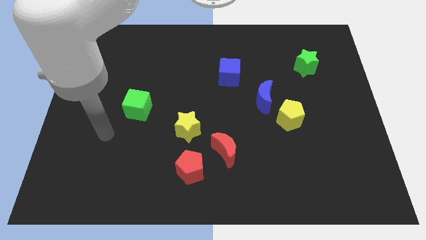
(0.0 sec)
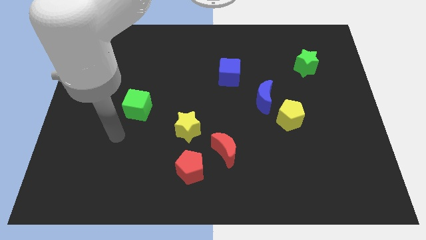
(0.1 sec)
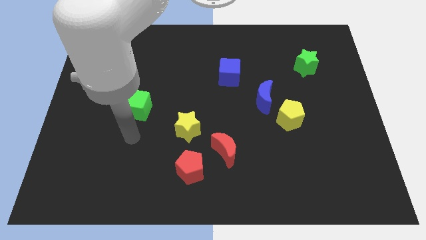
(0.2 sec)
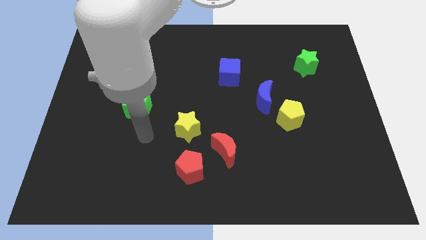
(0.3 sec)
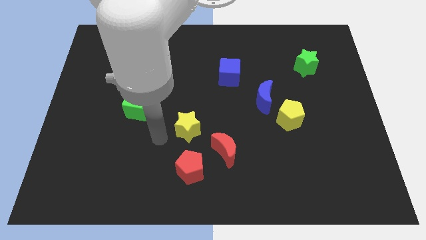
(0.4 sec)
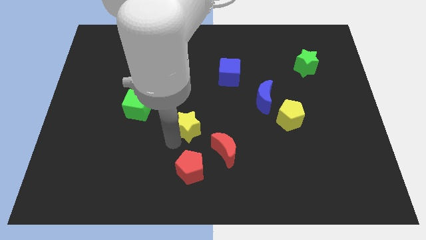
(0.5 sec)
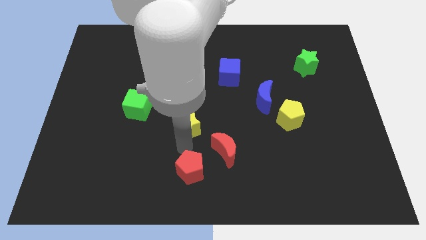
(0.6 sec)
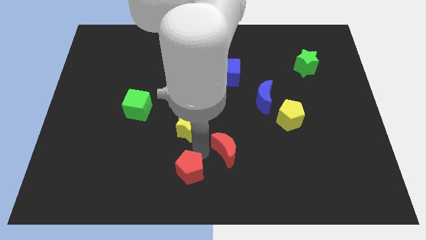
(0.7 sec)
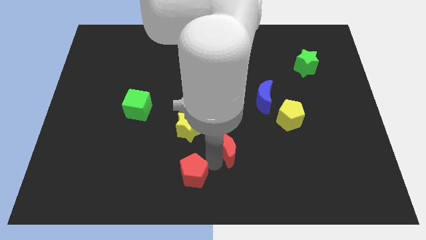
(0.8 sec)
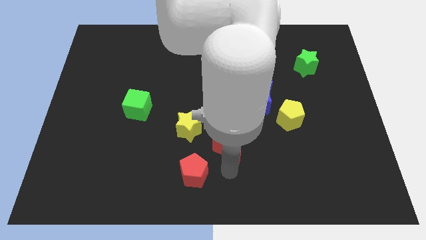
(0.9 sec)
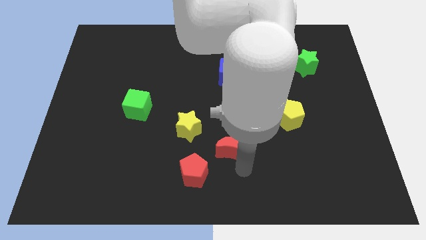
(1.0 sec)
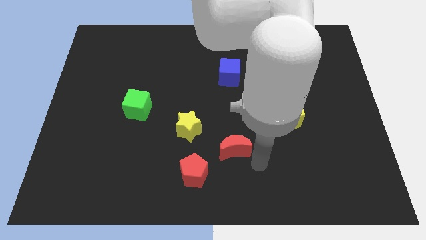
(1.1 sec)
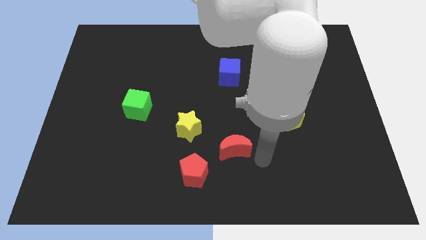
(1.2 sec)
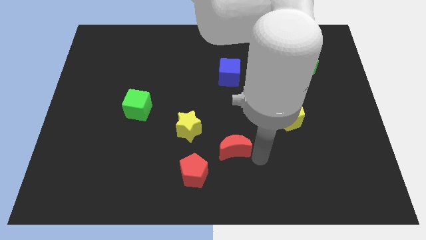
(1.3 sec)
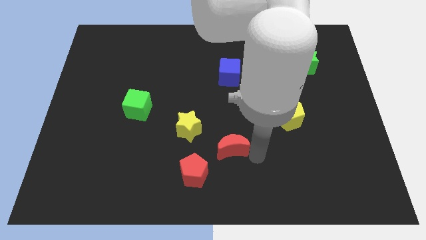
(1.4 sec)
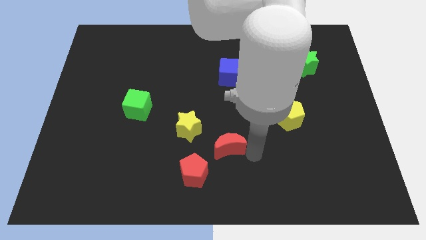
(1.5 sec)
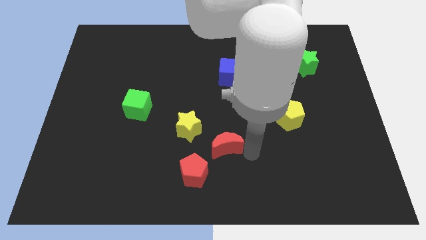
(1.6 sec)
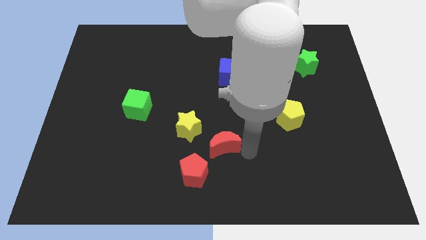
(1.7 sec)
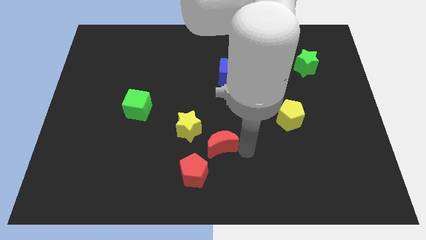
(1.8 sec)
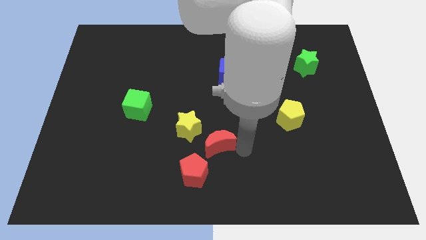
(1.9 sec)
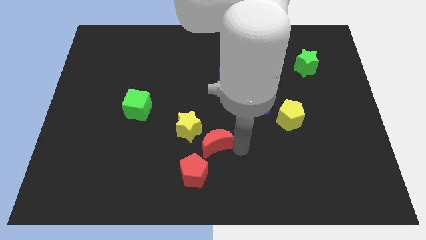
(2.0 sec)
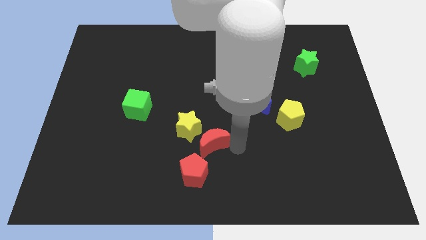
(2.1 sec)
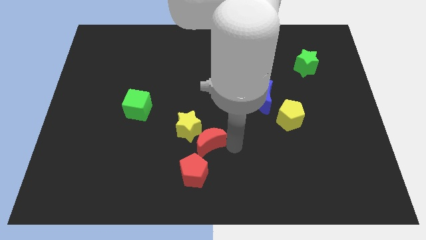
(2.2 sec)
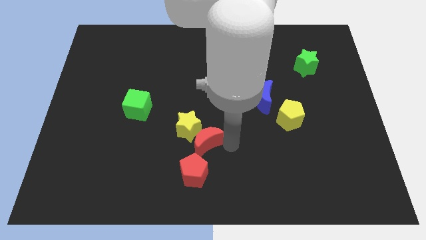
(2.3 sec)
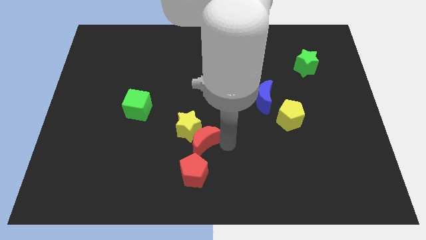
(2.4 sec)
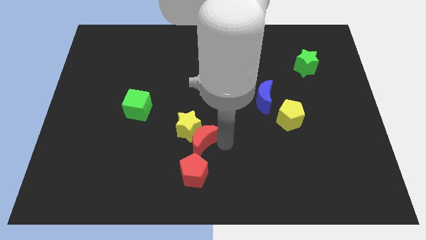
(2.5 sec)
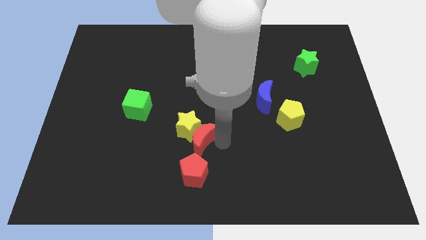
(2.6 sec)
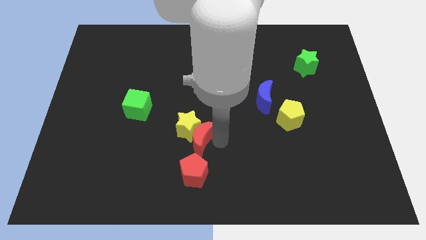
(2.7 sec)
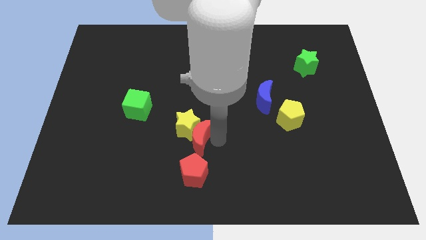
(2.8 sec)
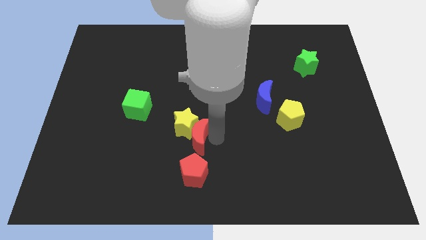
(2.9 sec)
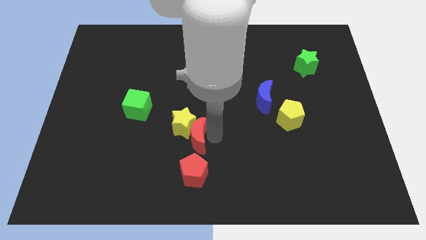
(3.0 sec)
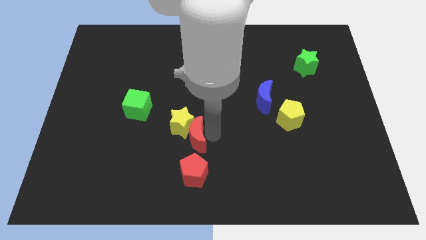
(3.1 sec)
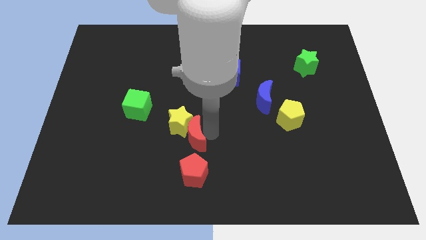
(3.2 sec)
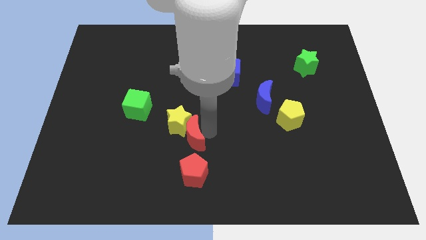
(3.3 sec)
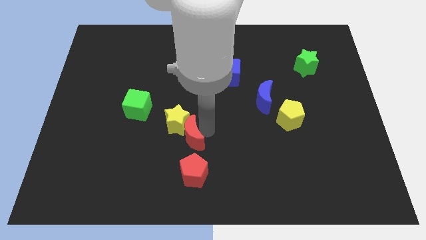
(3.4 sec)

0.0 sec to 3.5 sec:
push the red moon left a little bit

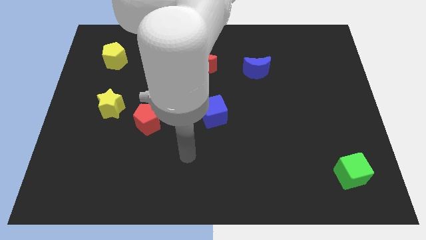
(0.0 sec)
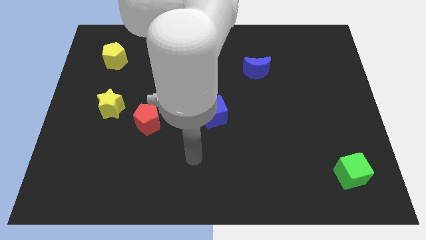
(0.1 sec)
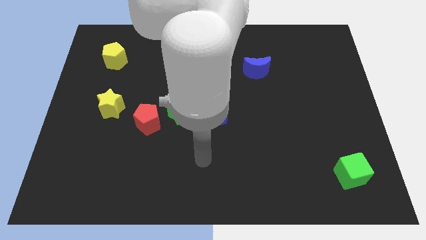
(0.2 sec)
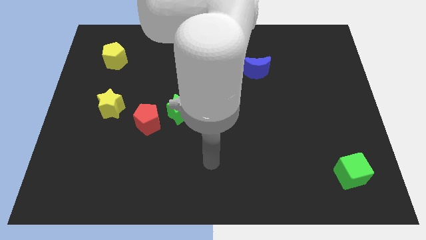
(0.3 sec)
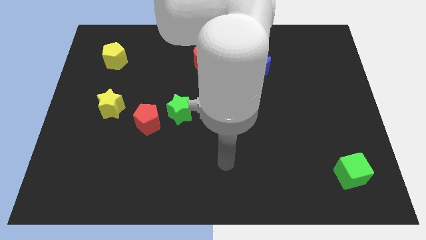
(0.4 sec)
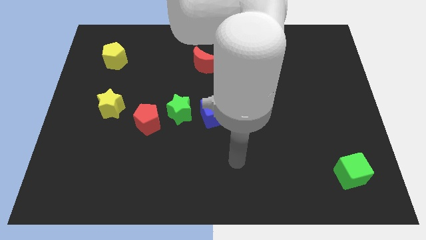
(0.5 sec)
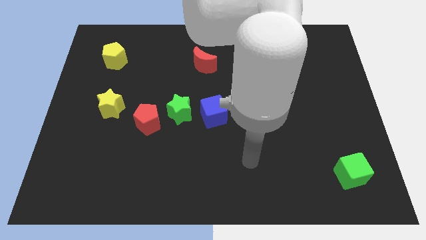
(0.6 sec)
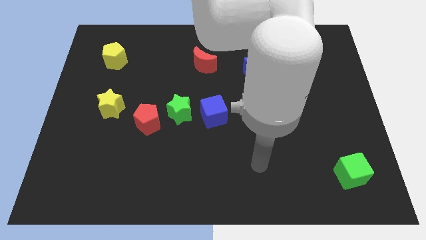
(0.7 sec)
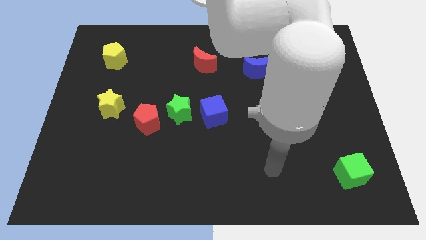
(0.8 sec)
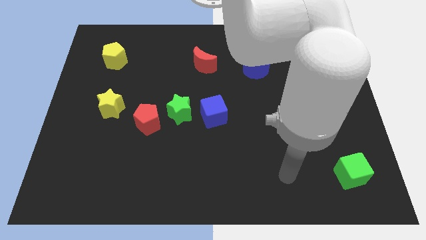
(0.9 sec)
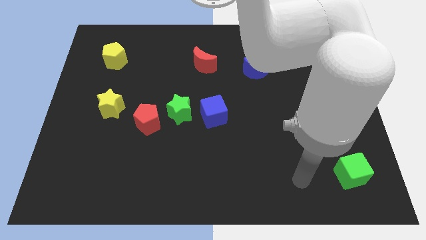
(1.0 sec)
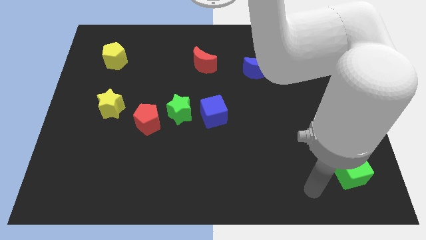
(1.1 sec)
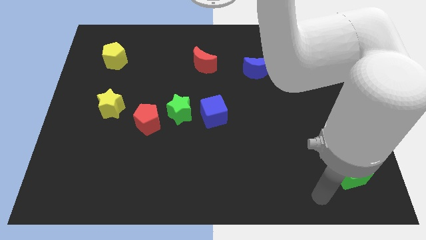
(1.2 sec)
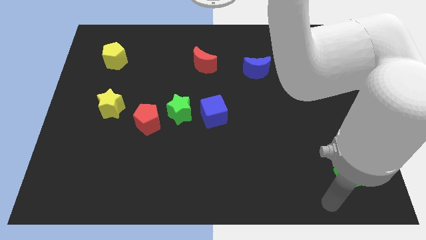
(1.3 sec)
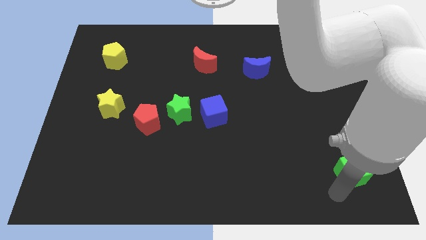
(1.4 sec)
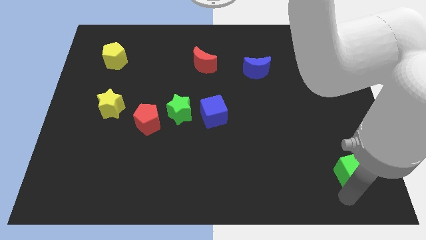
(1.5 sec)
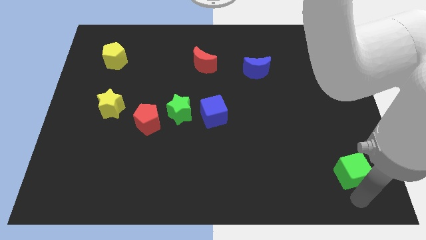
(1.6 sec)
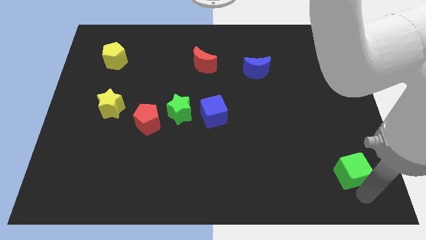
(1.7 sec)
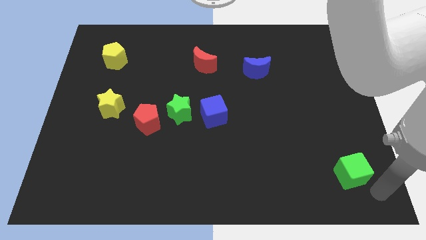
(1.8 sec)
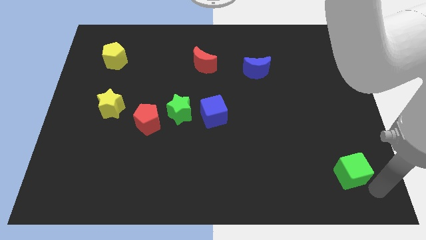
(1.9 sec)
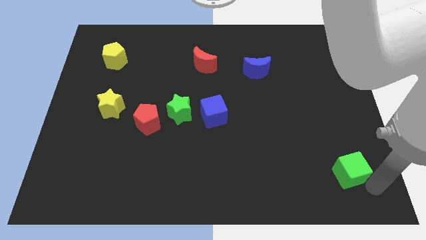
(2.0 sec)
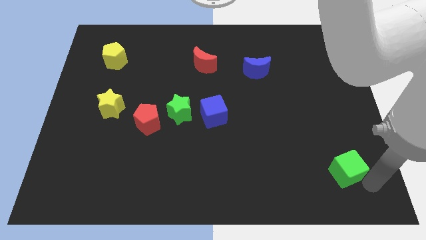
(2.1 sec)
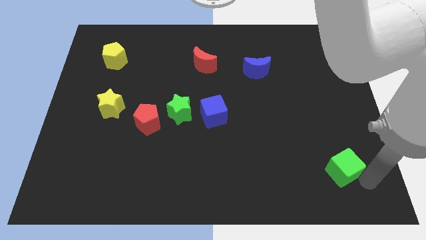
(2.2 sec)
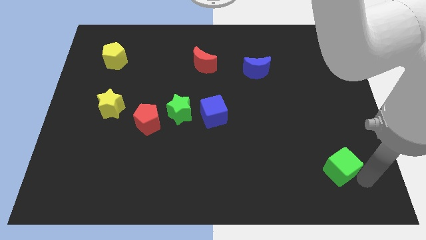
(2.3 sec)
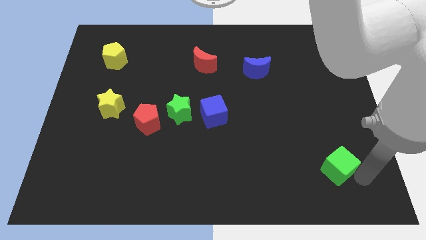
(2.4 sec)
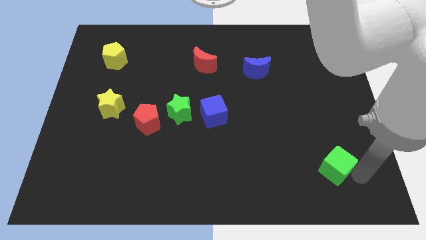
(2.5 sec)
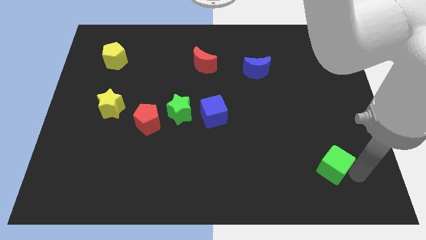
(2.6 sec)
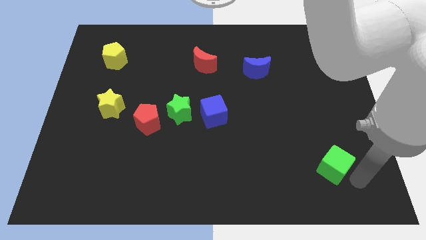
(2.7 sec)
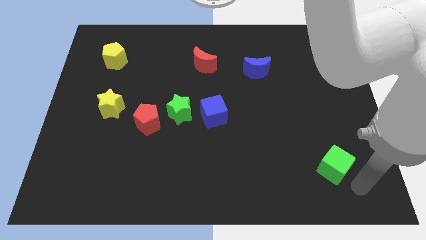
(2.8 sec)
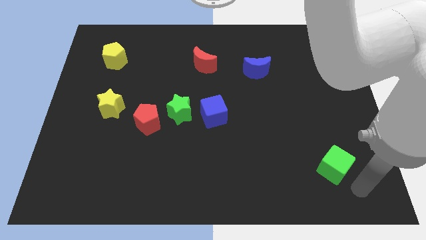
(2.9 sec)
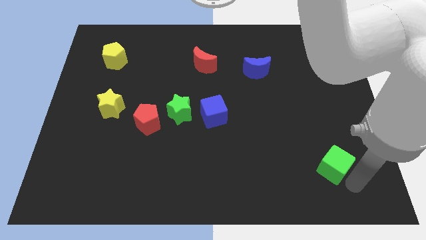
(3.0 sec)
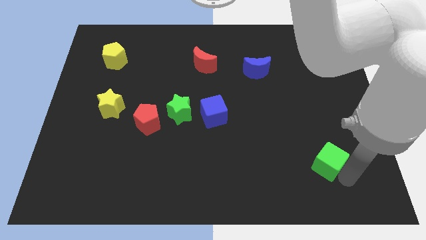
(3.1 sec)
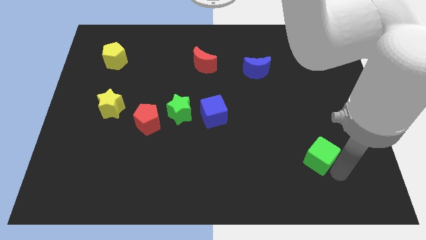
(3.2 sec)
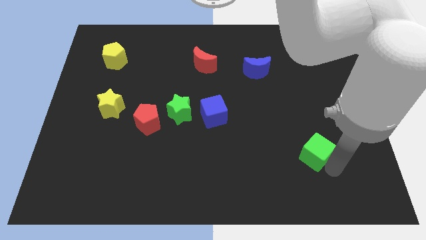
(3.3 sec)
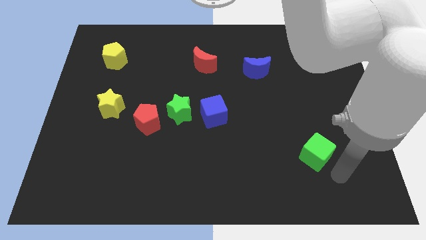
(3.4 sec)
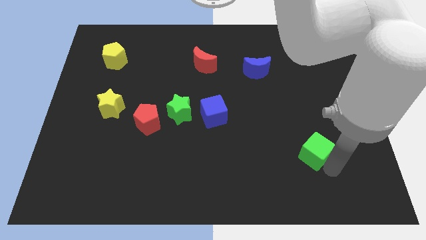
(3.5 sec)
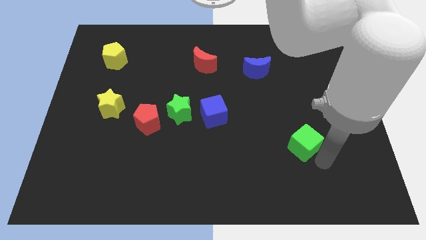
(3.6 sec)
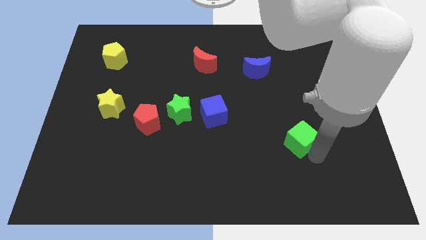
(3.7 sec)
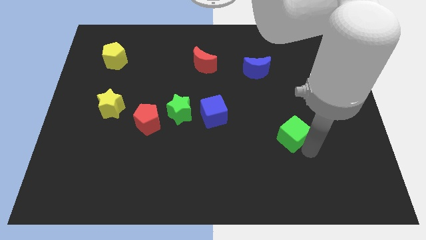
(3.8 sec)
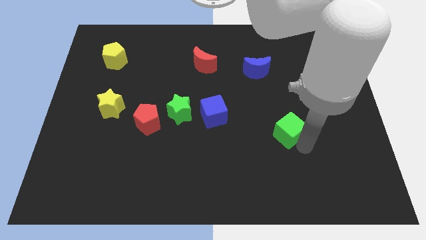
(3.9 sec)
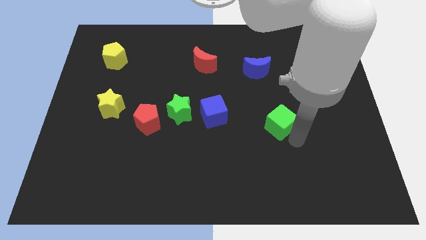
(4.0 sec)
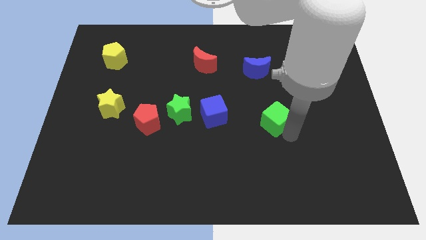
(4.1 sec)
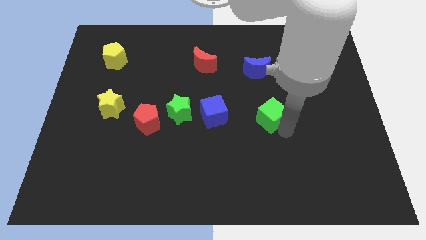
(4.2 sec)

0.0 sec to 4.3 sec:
push the green cube diagonally upwards and to the left

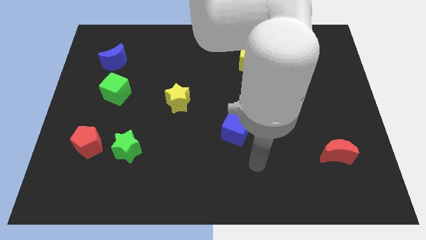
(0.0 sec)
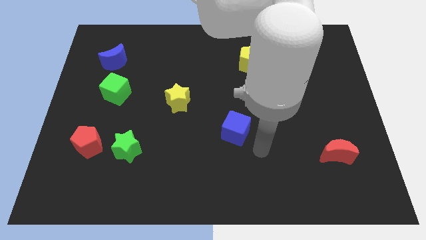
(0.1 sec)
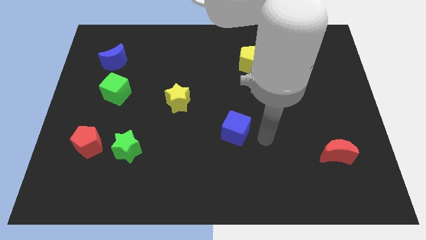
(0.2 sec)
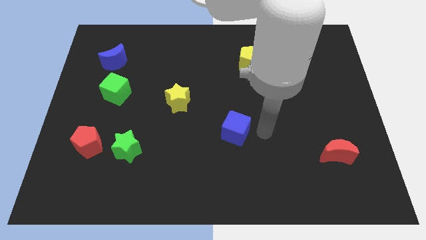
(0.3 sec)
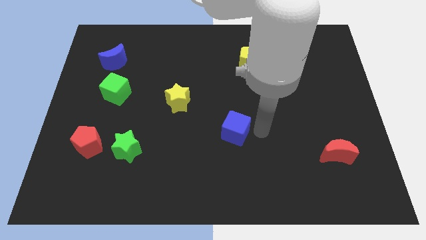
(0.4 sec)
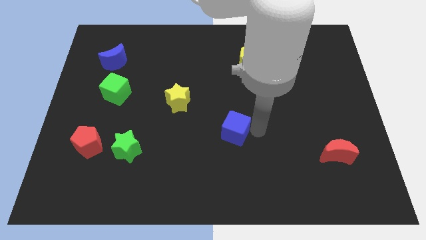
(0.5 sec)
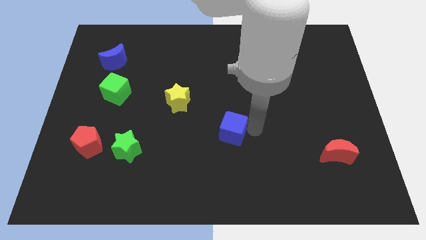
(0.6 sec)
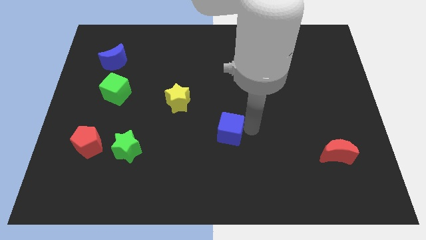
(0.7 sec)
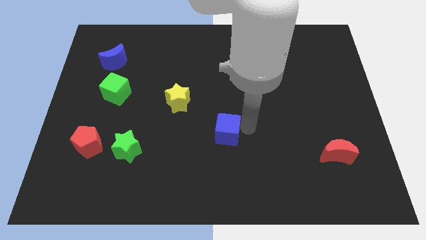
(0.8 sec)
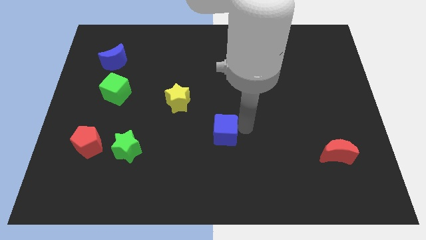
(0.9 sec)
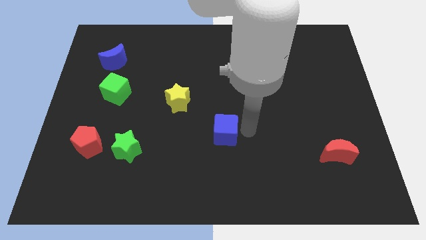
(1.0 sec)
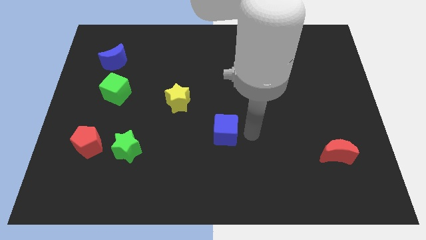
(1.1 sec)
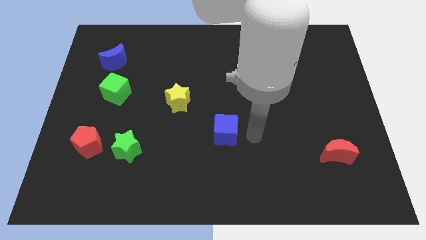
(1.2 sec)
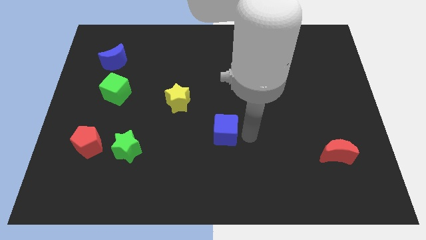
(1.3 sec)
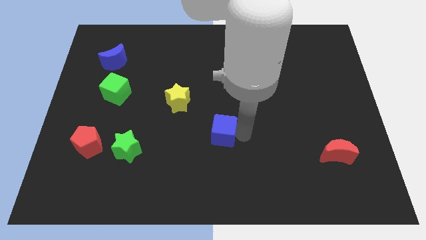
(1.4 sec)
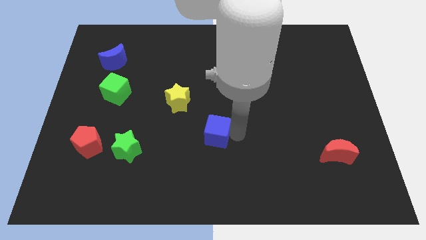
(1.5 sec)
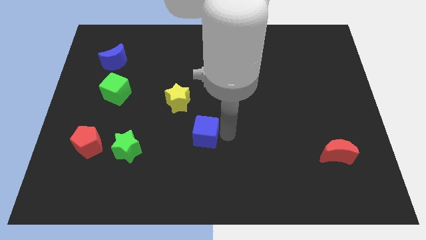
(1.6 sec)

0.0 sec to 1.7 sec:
slightly move the blue cube left
